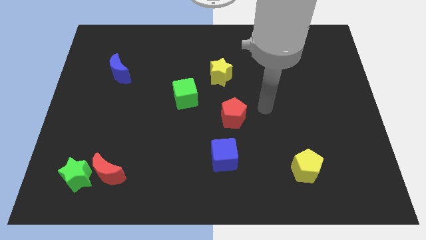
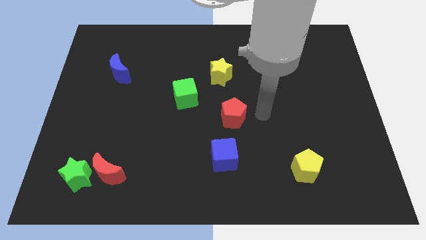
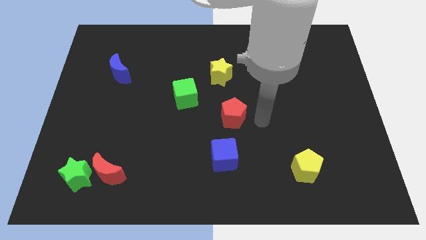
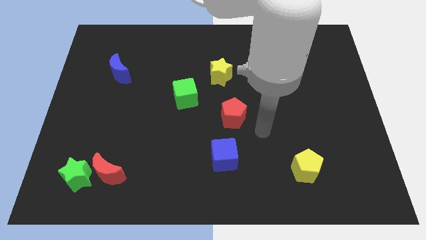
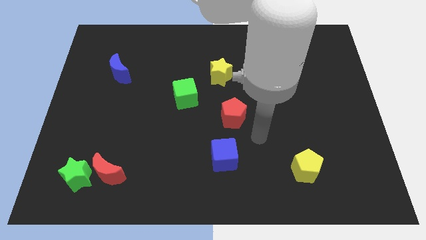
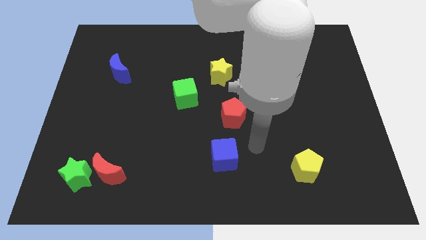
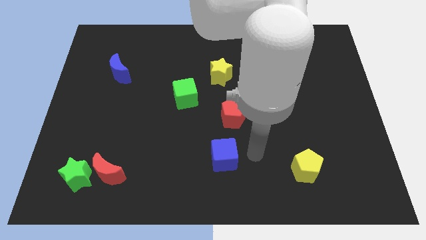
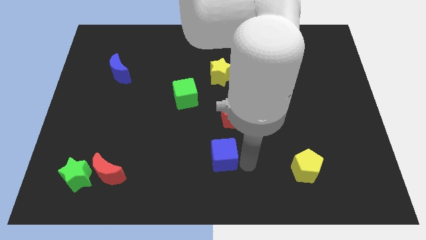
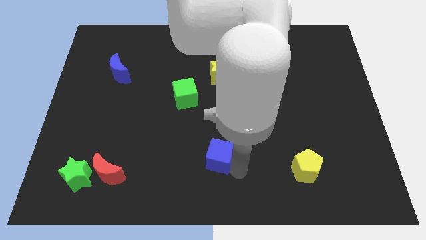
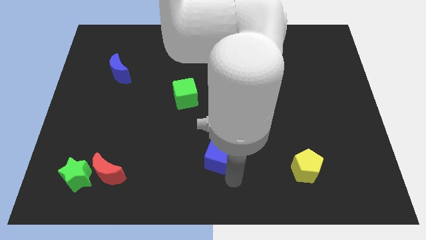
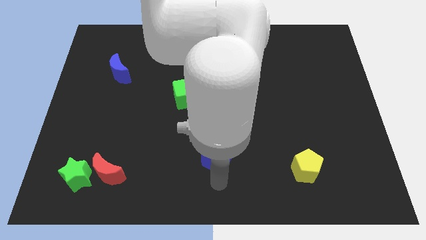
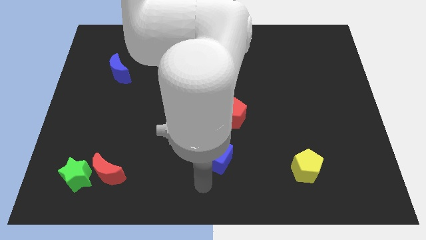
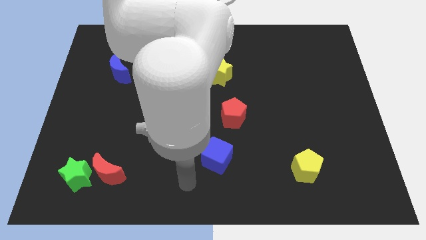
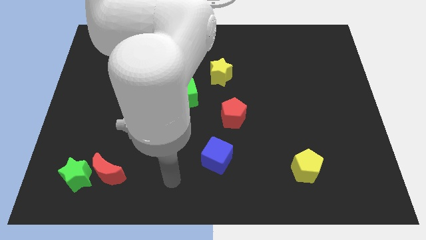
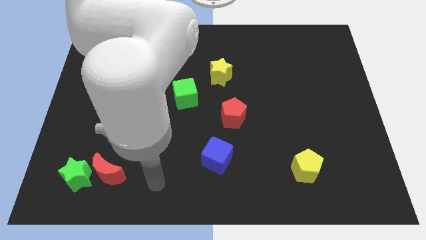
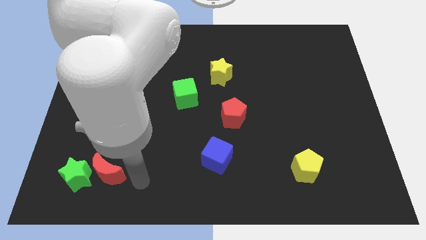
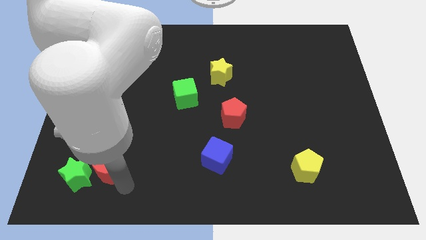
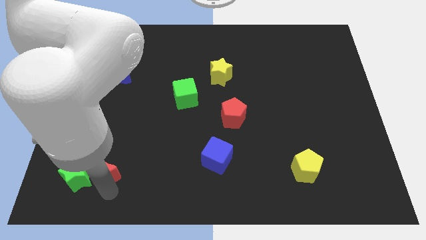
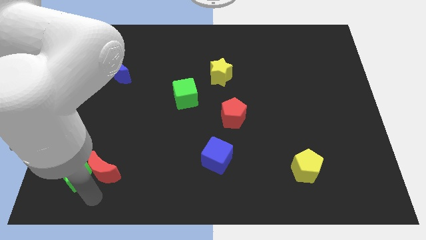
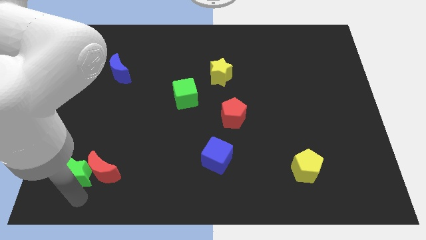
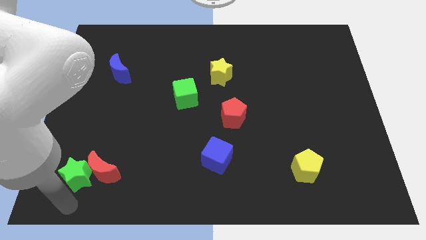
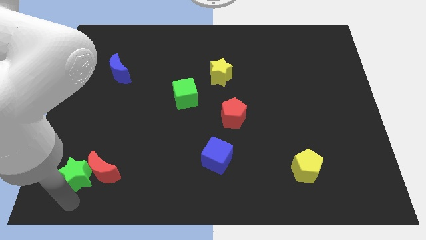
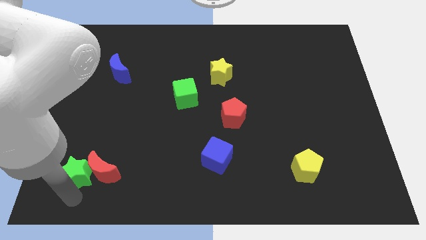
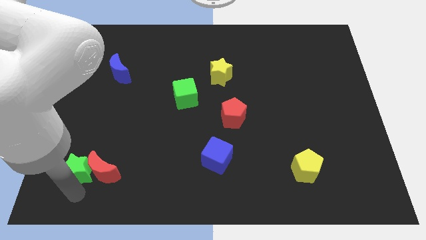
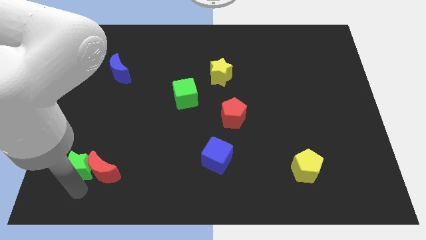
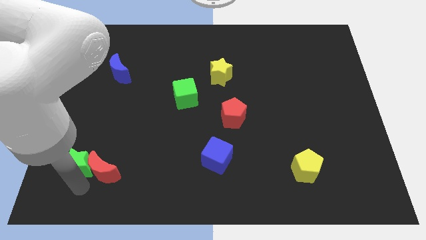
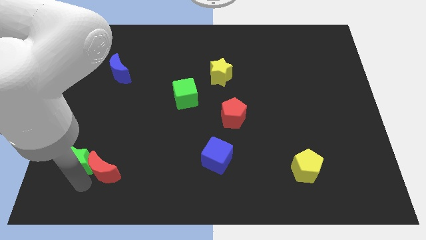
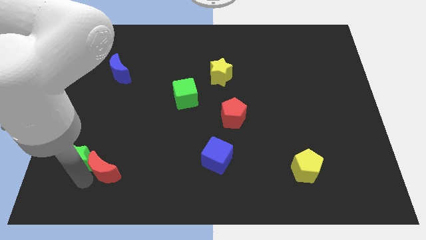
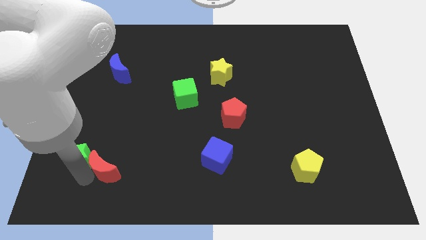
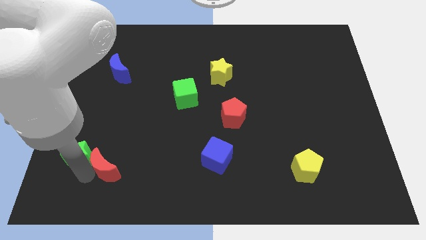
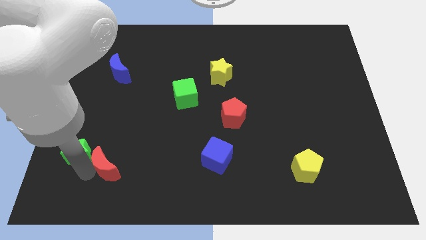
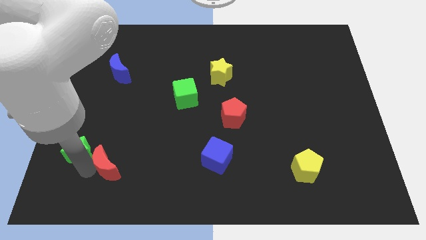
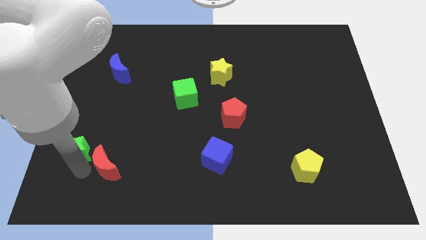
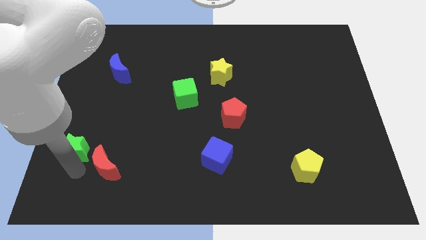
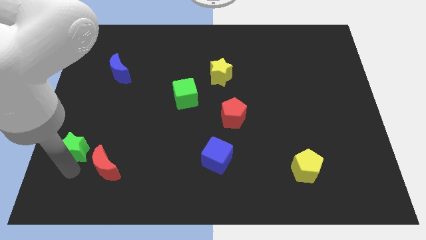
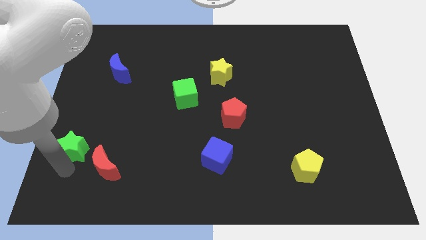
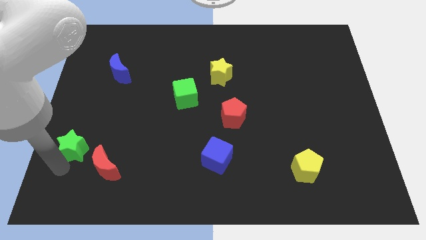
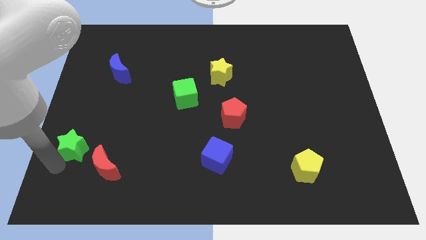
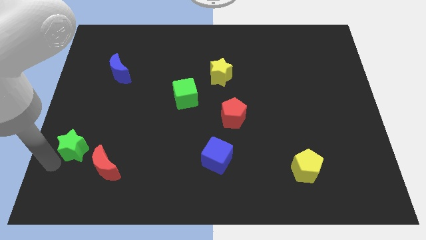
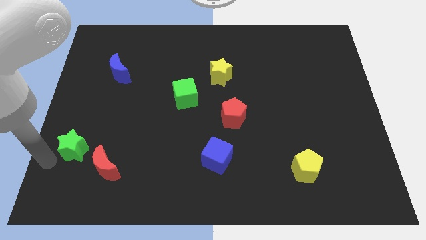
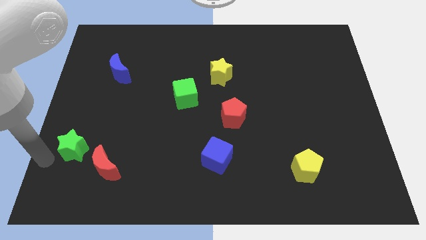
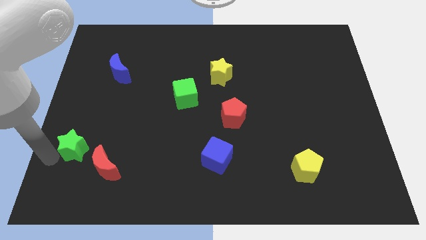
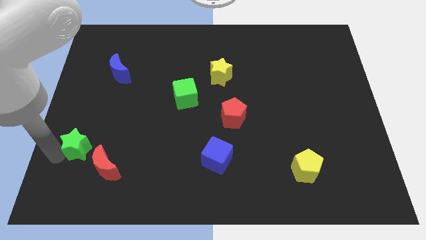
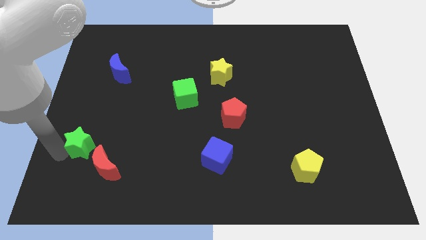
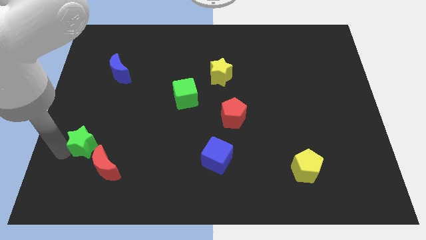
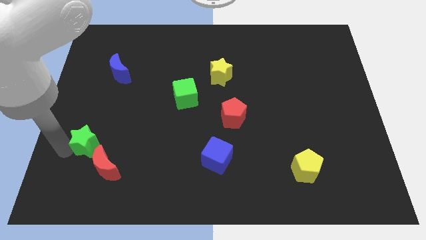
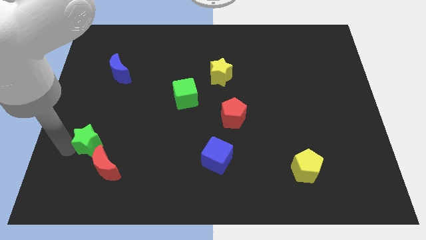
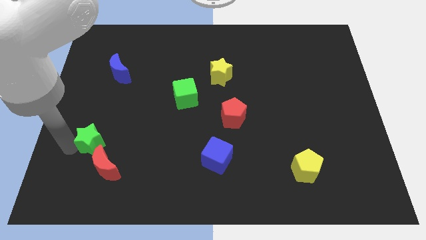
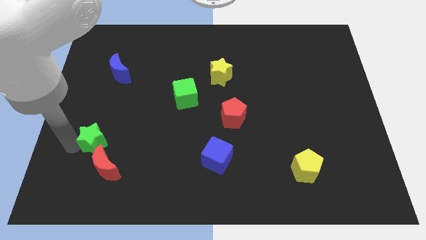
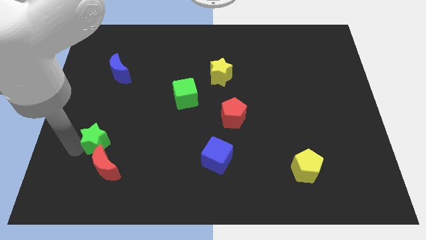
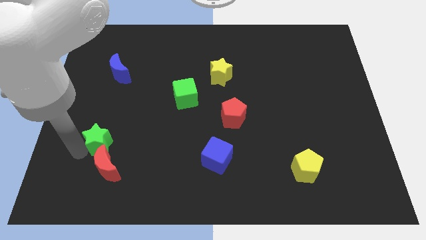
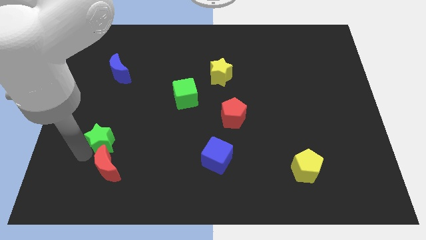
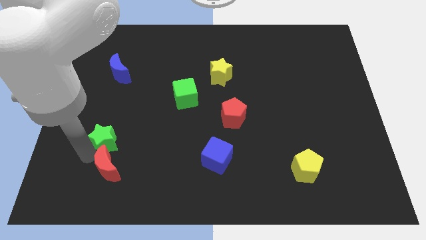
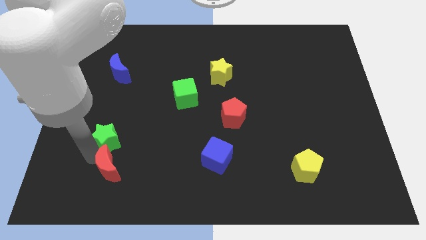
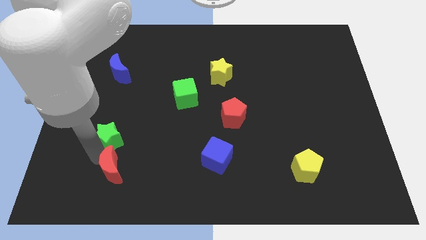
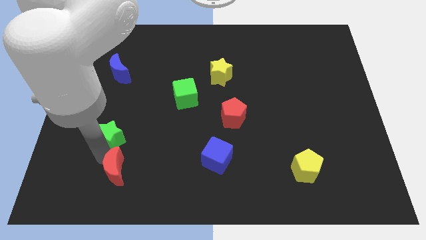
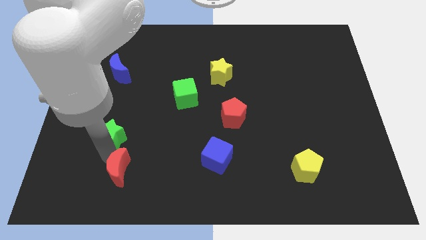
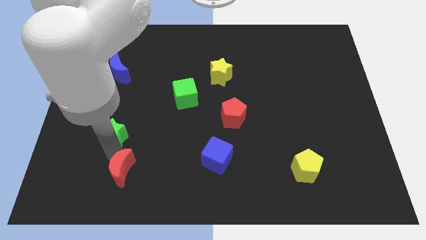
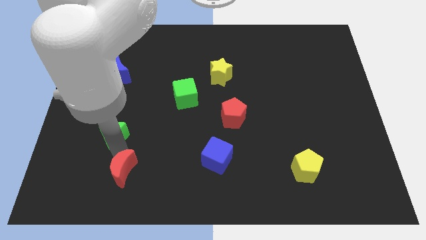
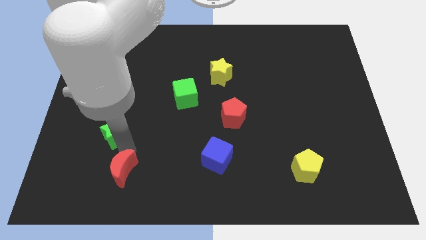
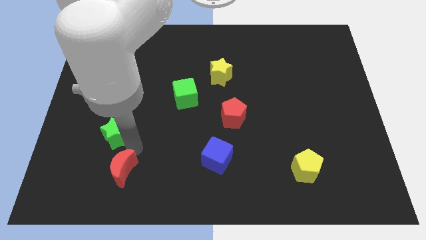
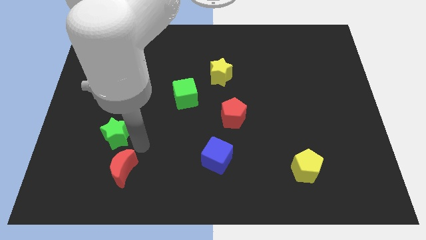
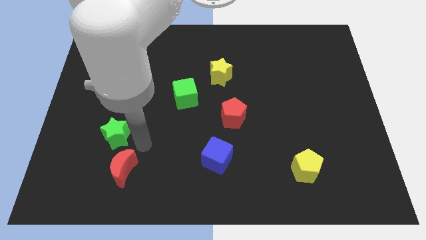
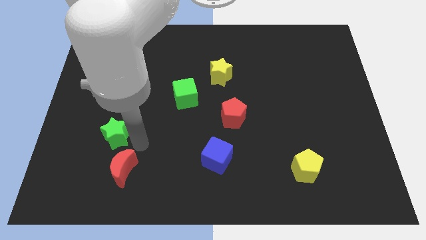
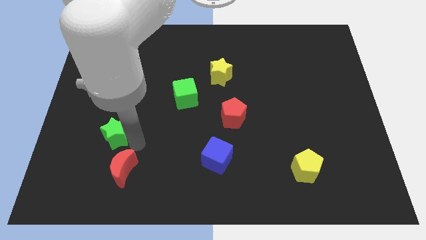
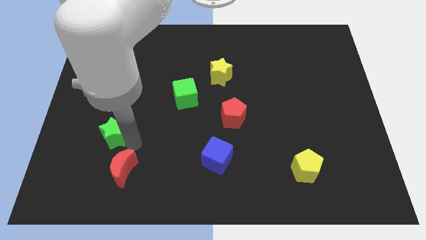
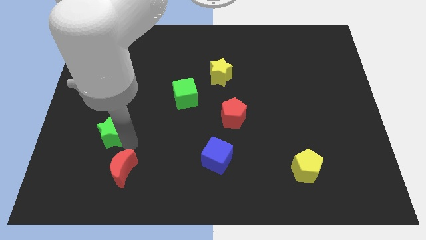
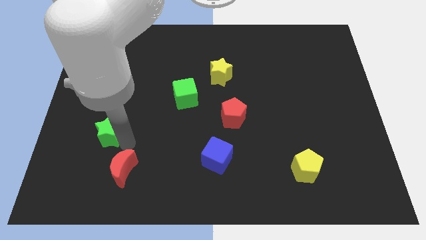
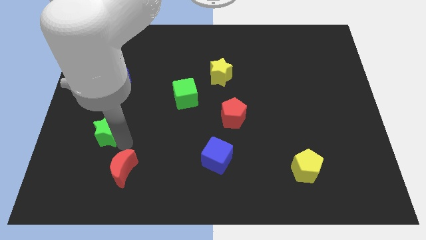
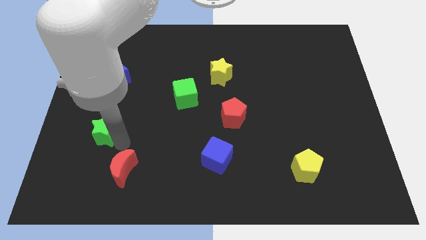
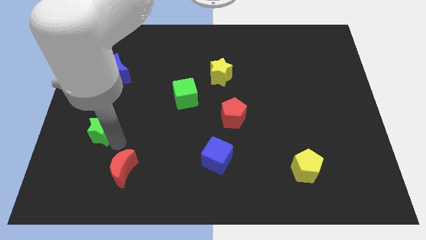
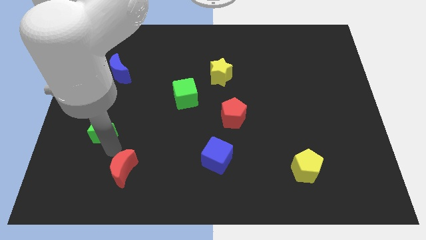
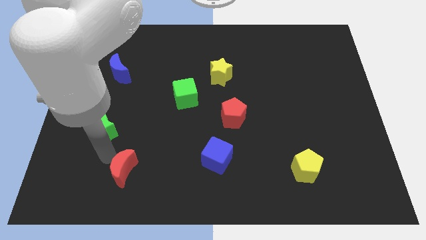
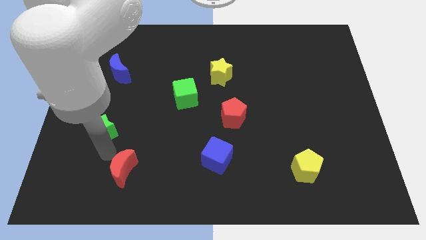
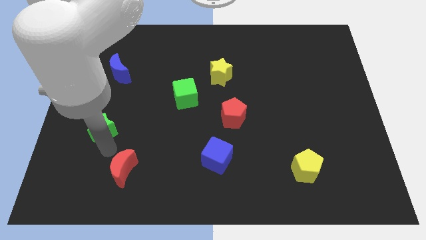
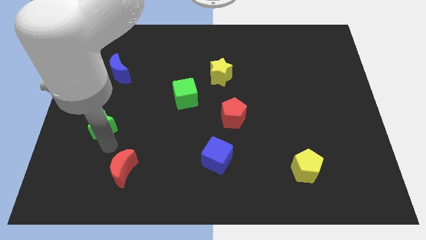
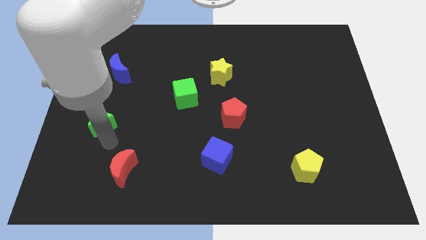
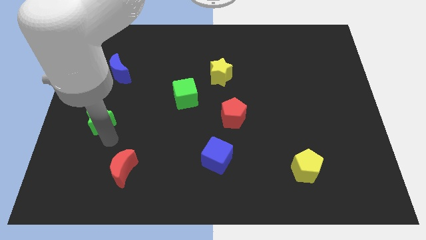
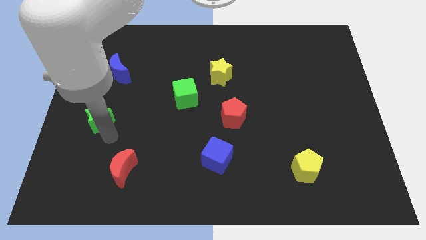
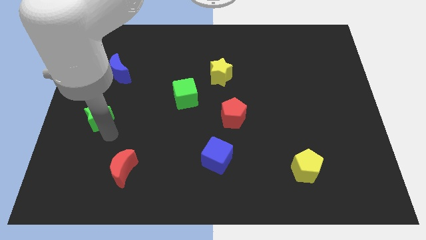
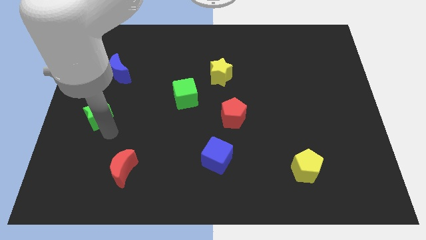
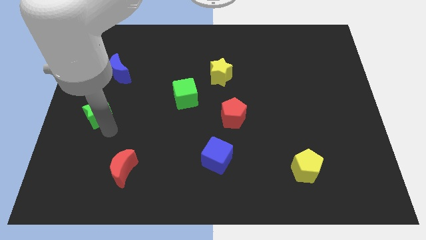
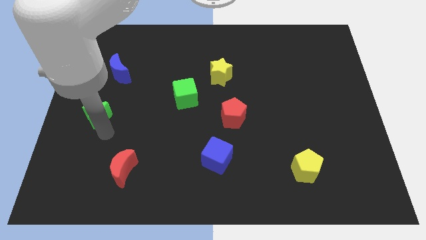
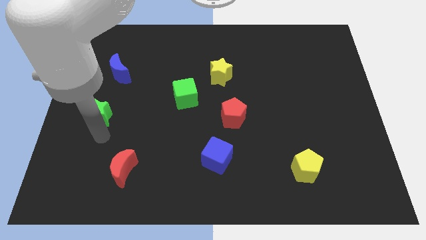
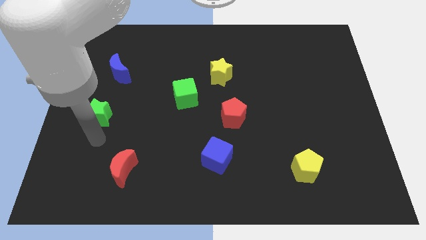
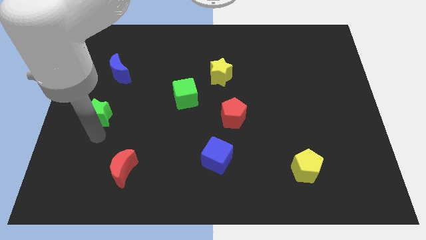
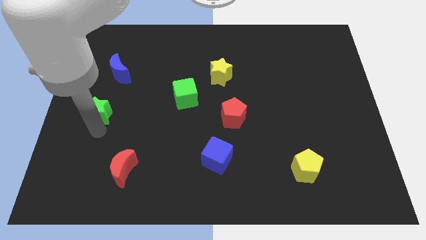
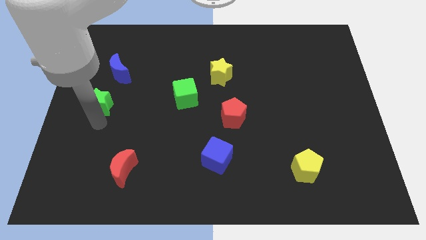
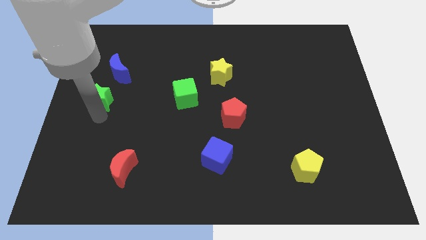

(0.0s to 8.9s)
move the green star upwards
